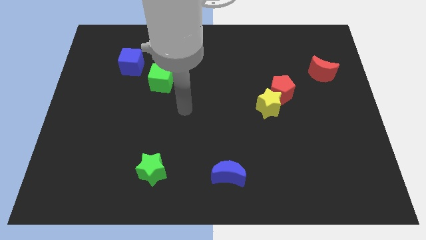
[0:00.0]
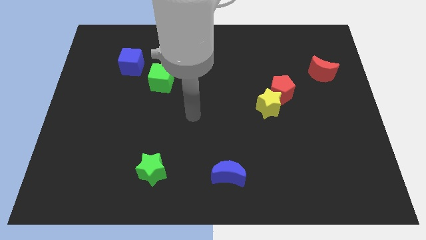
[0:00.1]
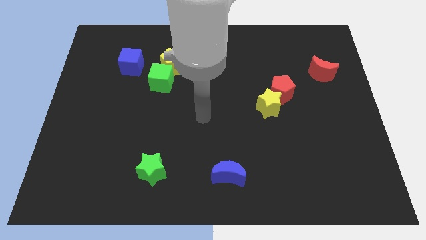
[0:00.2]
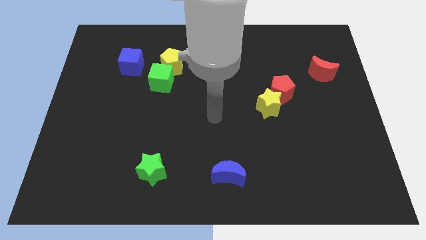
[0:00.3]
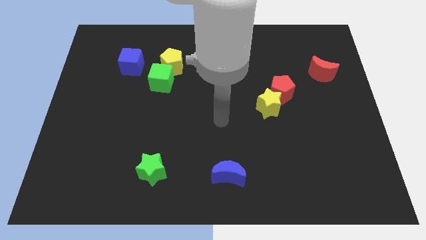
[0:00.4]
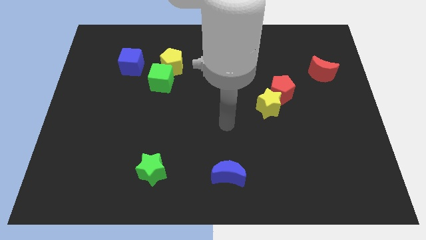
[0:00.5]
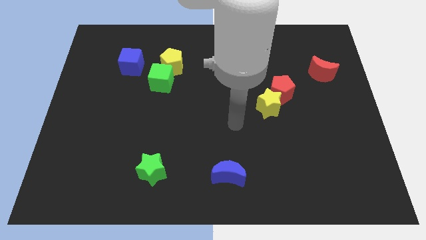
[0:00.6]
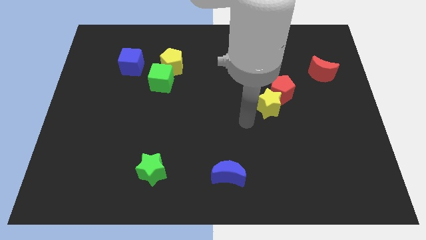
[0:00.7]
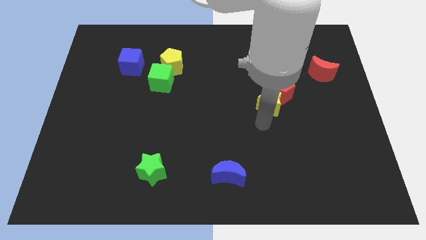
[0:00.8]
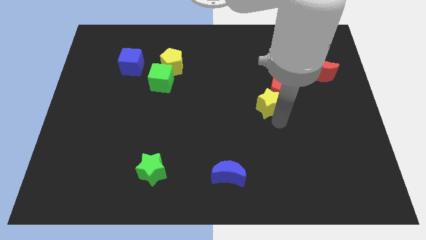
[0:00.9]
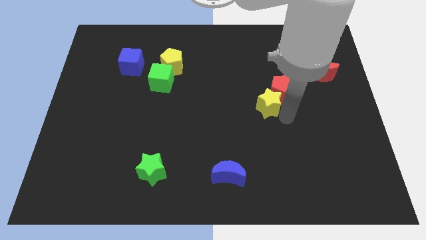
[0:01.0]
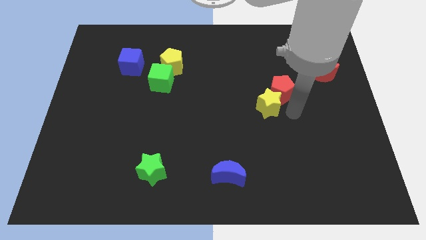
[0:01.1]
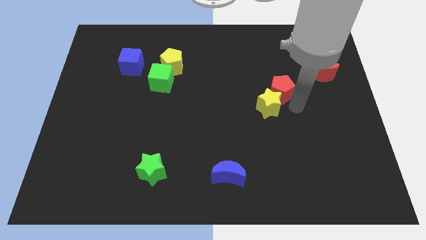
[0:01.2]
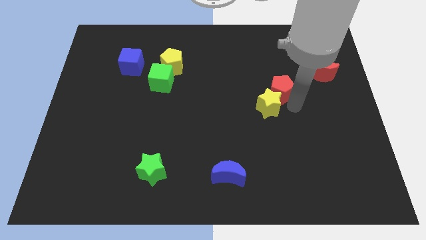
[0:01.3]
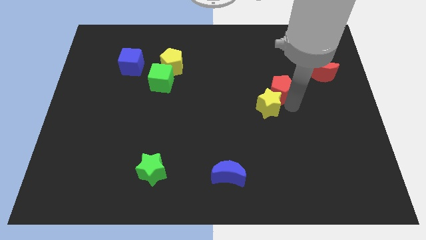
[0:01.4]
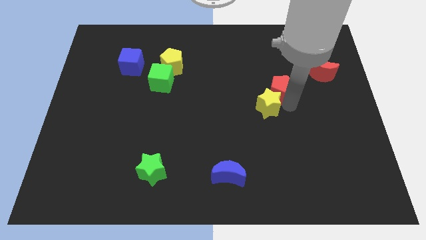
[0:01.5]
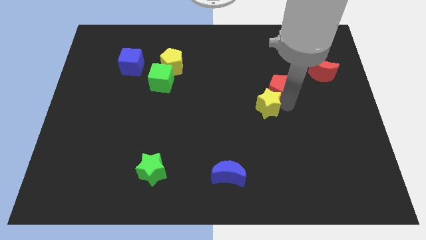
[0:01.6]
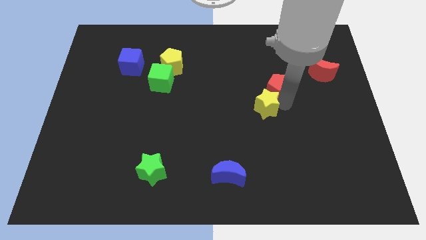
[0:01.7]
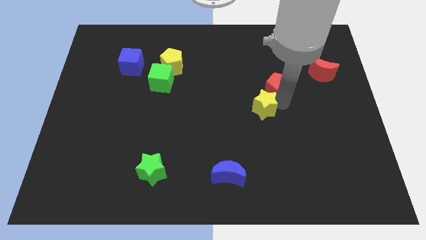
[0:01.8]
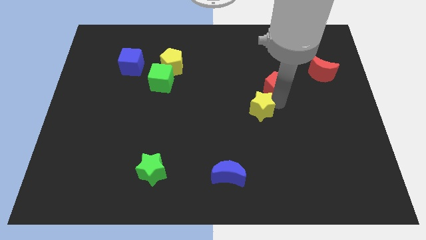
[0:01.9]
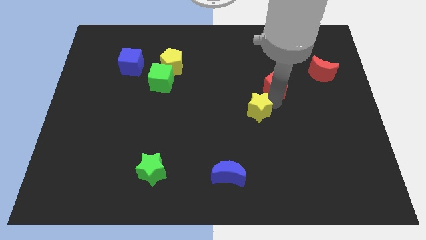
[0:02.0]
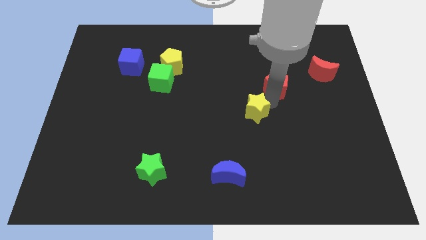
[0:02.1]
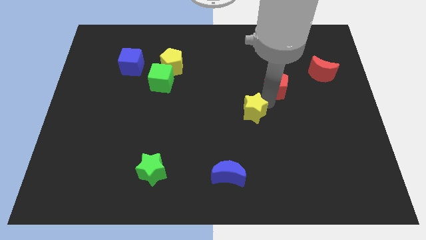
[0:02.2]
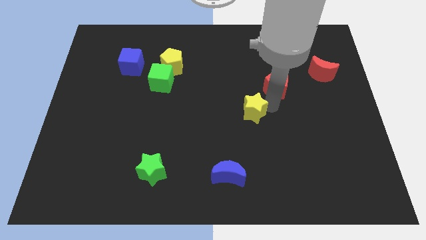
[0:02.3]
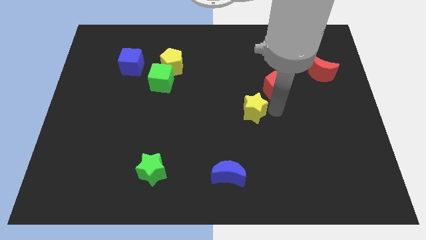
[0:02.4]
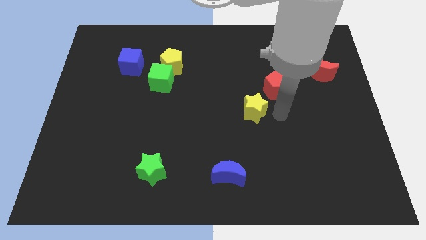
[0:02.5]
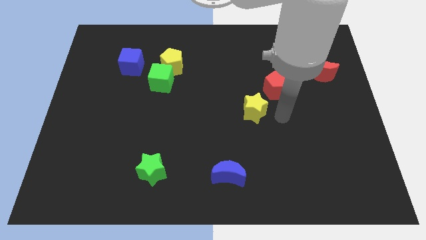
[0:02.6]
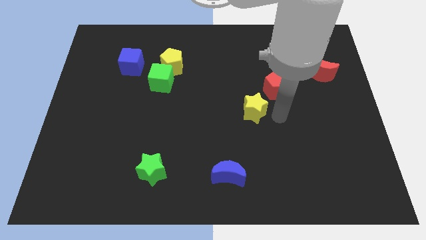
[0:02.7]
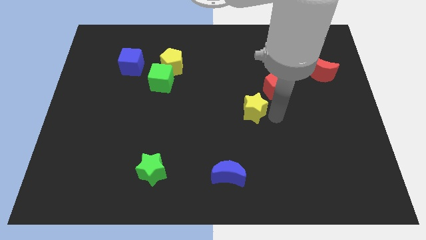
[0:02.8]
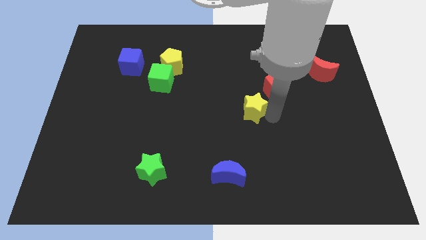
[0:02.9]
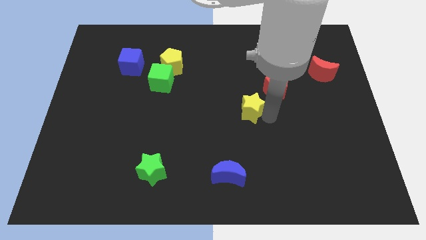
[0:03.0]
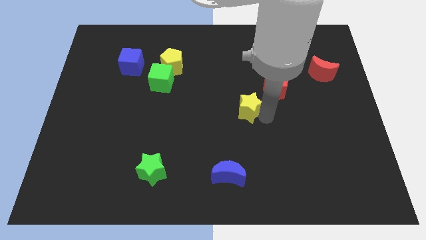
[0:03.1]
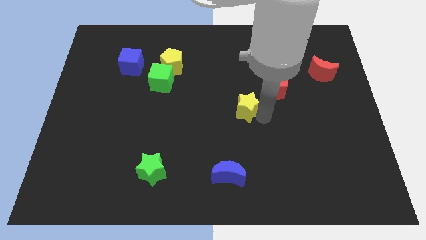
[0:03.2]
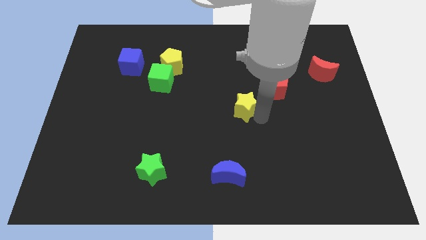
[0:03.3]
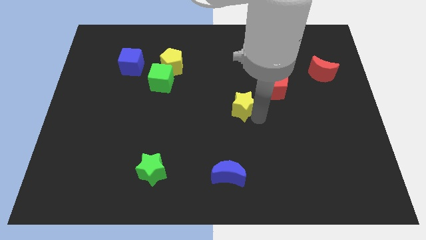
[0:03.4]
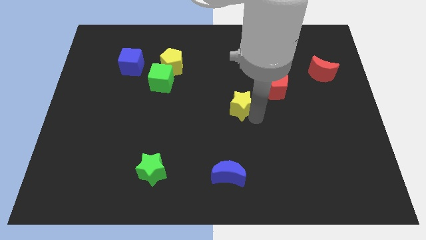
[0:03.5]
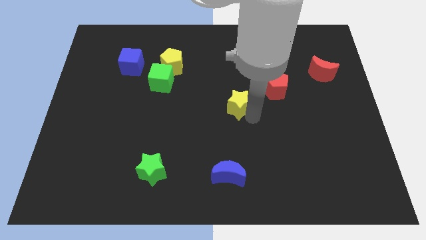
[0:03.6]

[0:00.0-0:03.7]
slightly push the yellow star left

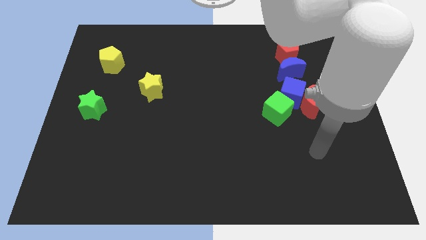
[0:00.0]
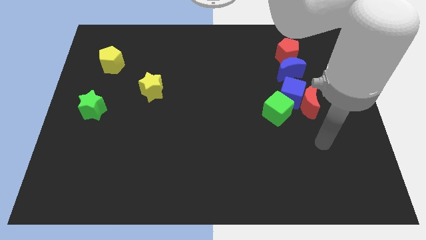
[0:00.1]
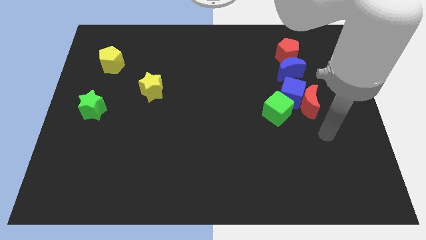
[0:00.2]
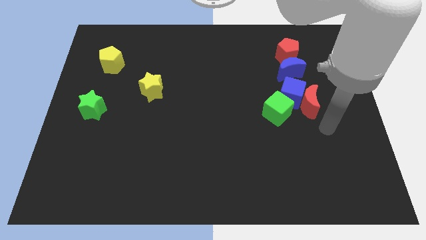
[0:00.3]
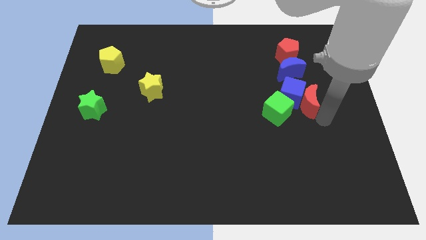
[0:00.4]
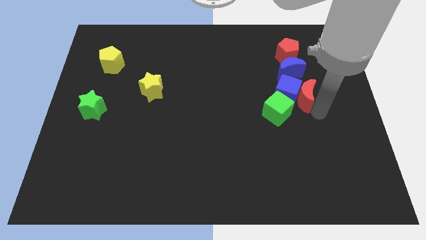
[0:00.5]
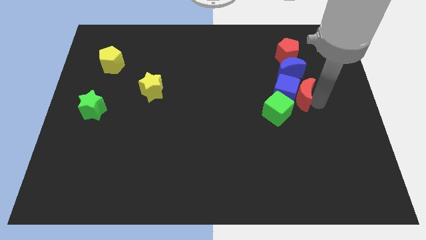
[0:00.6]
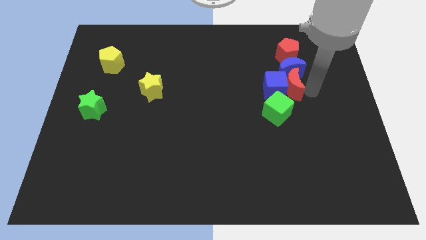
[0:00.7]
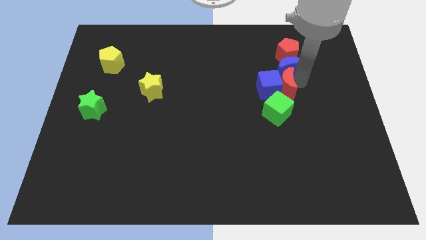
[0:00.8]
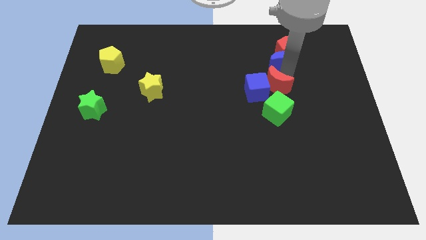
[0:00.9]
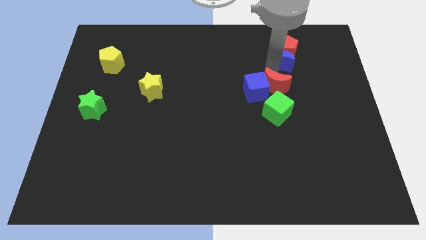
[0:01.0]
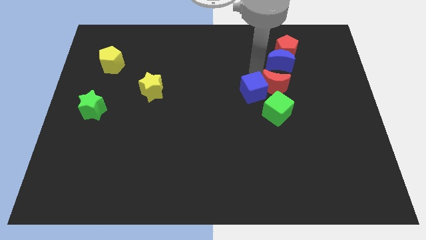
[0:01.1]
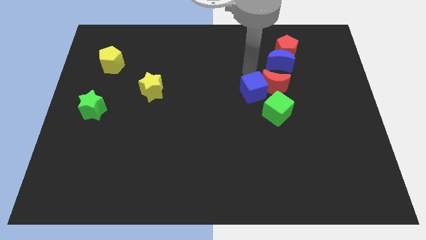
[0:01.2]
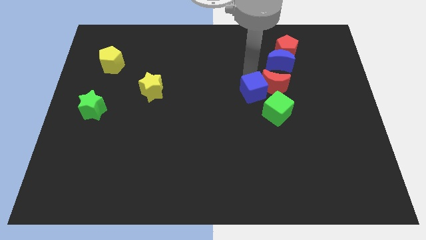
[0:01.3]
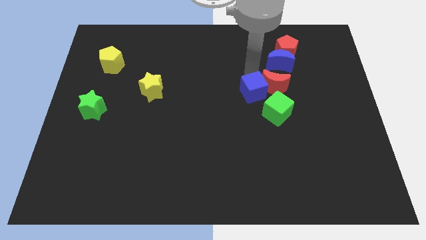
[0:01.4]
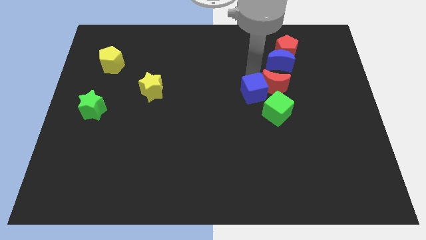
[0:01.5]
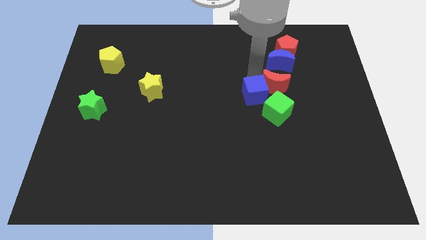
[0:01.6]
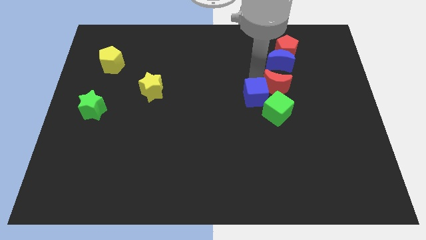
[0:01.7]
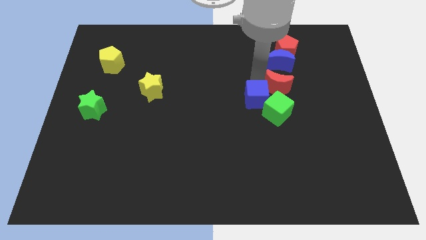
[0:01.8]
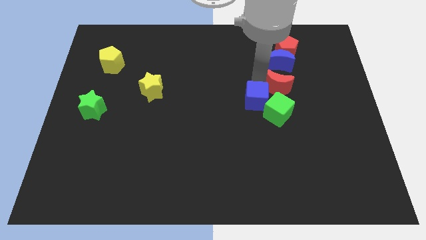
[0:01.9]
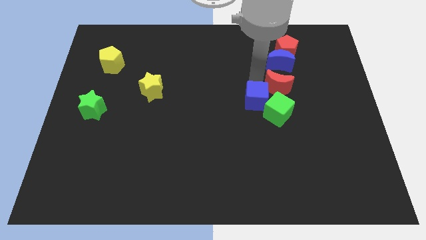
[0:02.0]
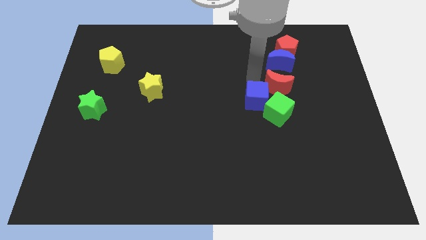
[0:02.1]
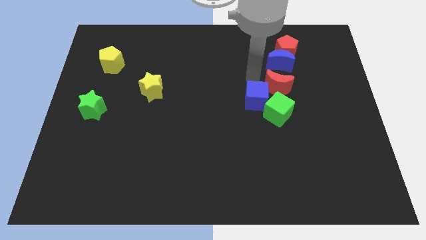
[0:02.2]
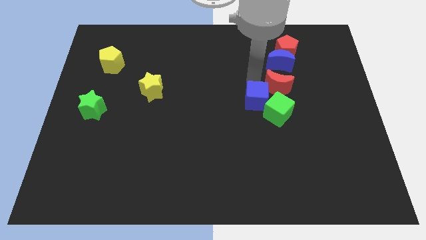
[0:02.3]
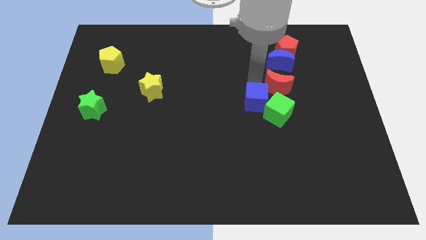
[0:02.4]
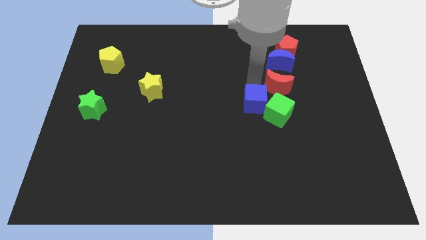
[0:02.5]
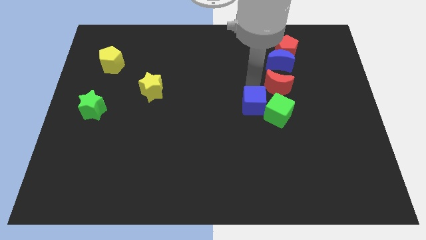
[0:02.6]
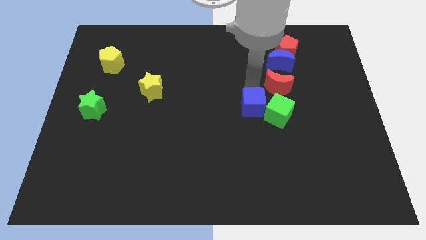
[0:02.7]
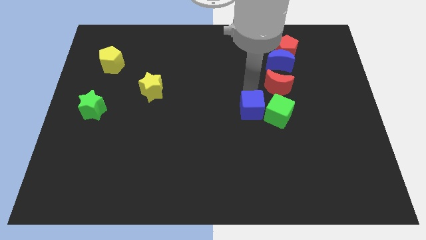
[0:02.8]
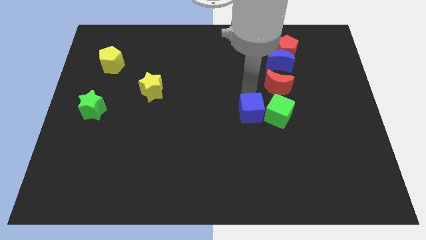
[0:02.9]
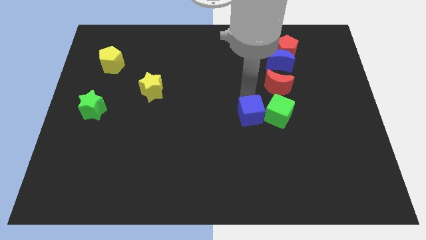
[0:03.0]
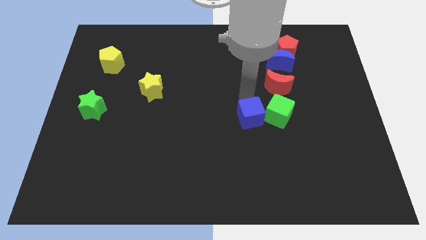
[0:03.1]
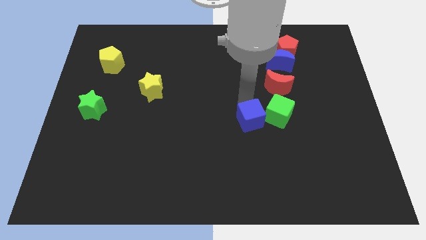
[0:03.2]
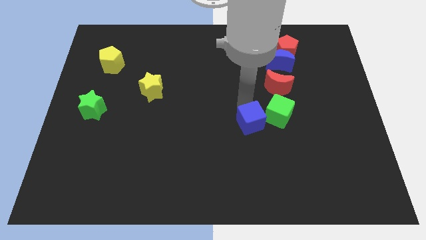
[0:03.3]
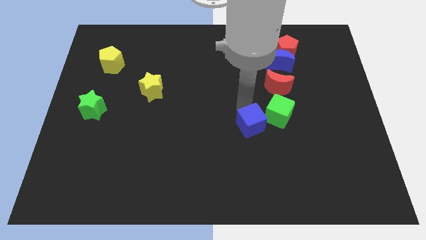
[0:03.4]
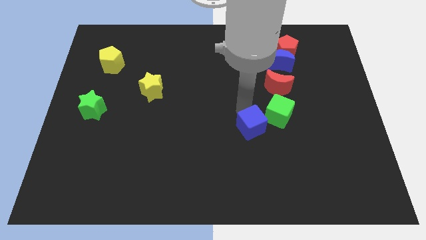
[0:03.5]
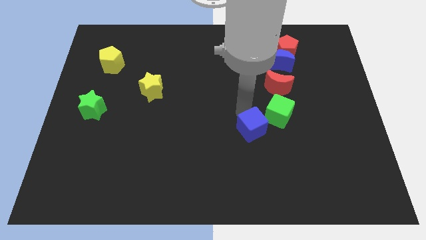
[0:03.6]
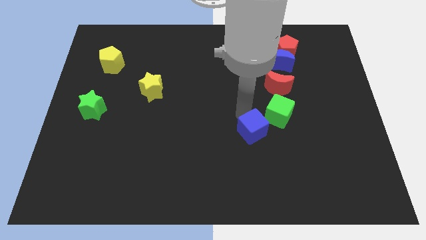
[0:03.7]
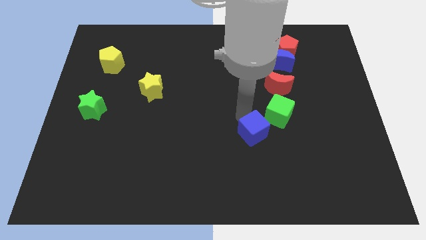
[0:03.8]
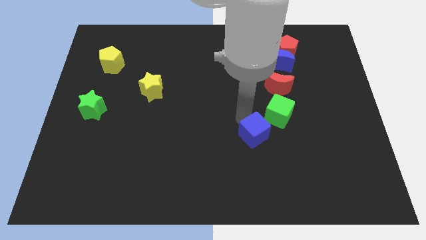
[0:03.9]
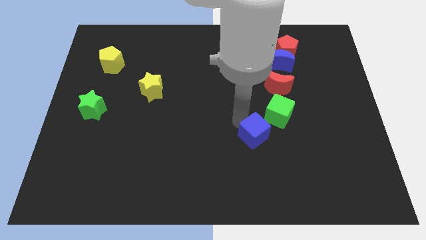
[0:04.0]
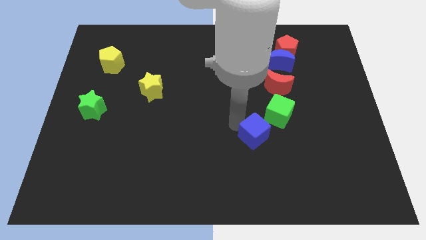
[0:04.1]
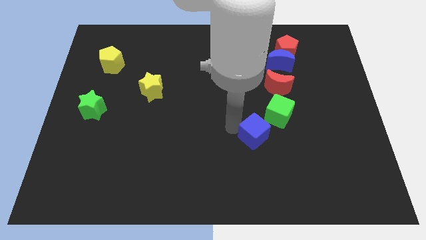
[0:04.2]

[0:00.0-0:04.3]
push the blue cube a little downwards

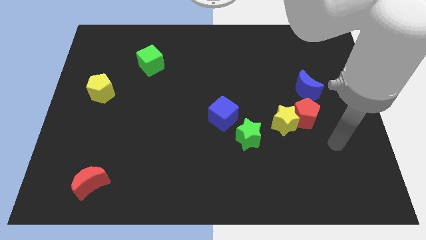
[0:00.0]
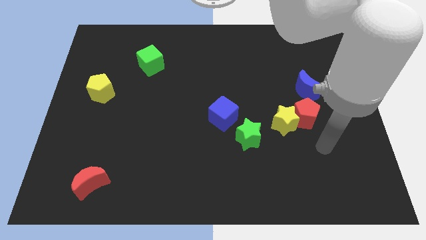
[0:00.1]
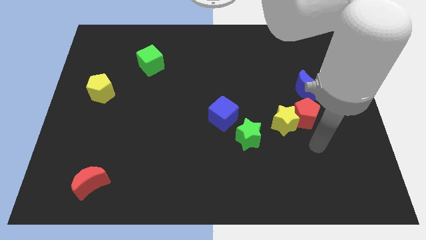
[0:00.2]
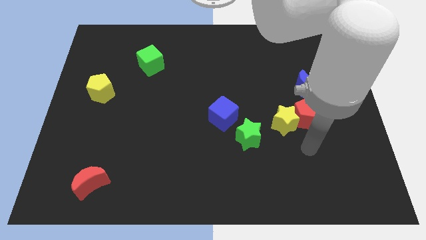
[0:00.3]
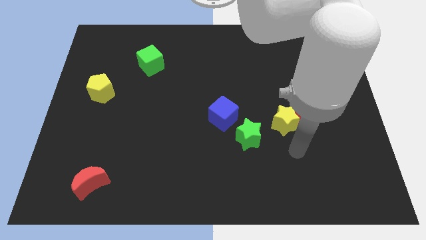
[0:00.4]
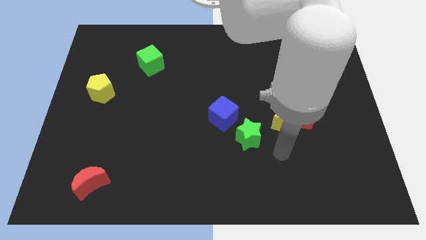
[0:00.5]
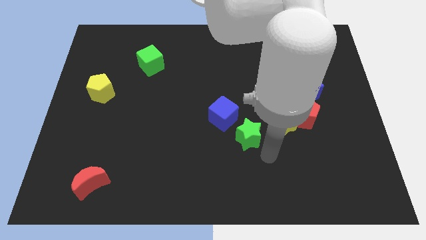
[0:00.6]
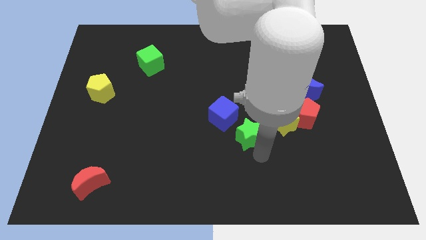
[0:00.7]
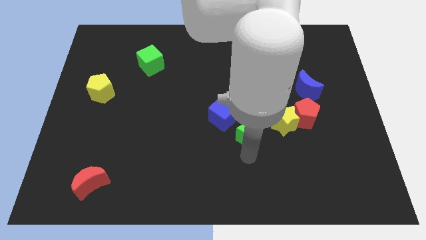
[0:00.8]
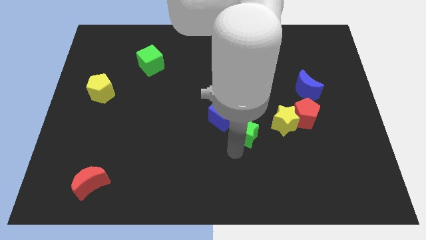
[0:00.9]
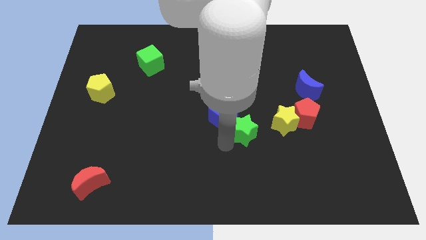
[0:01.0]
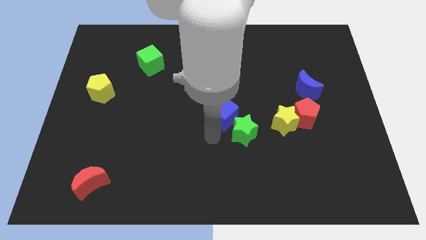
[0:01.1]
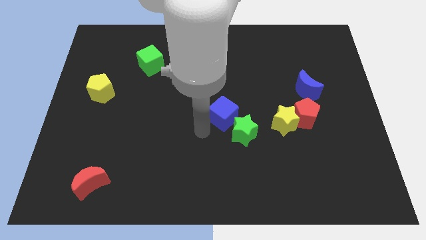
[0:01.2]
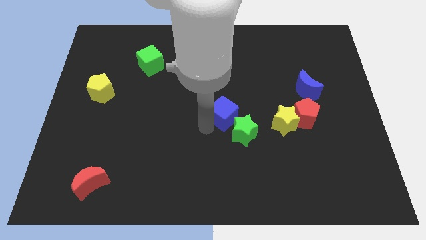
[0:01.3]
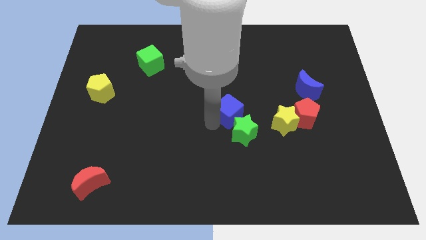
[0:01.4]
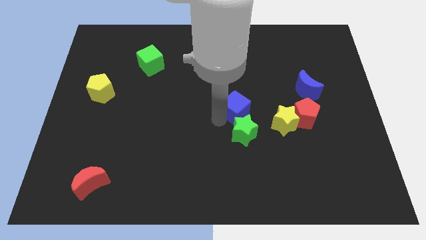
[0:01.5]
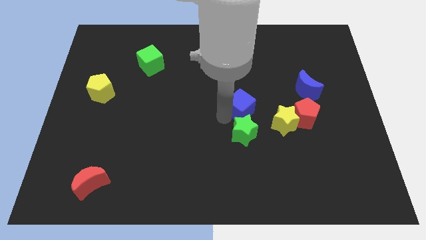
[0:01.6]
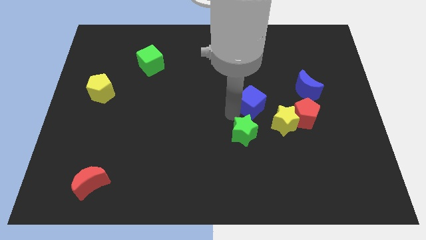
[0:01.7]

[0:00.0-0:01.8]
slide the blue cube up and right diagonally slightly
